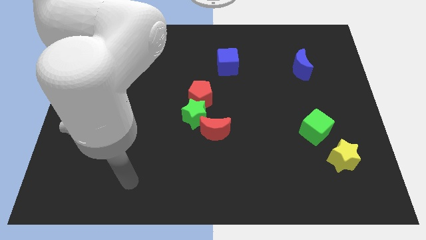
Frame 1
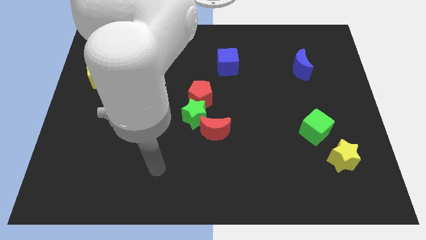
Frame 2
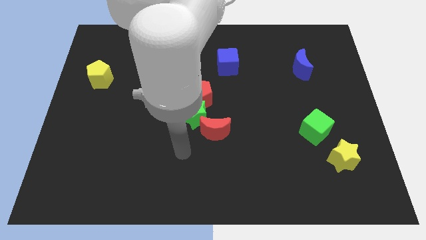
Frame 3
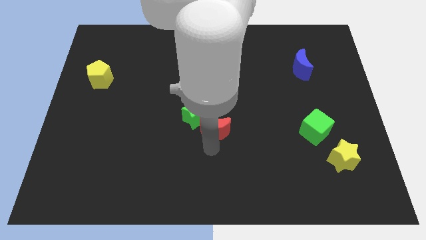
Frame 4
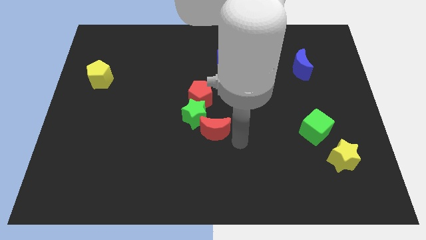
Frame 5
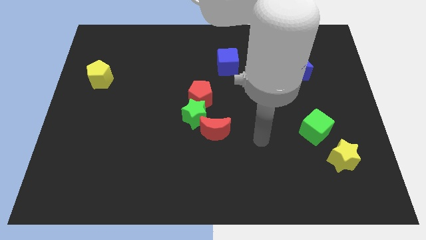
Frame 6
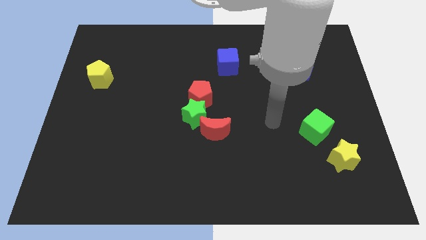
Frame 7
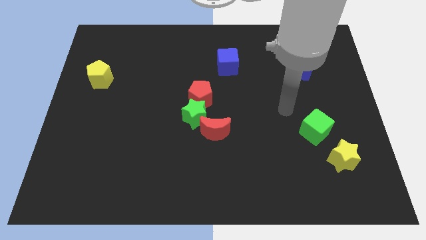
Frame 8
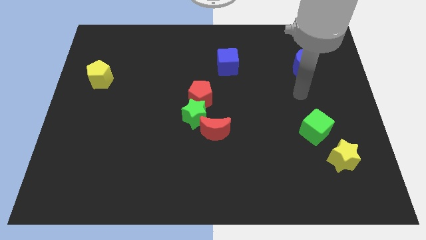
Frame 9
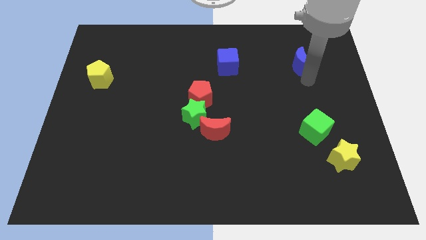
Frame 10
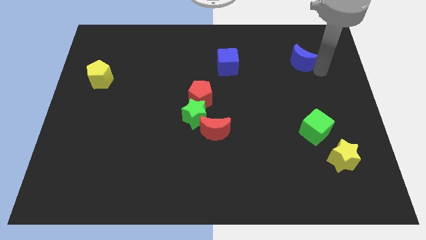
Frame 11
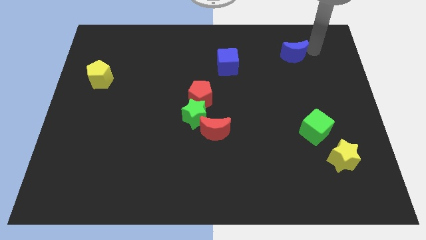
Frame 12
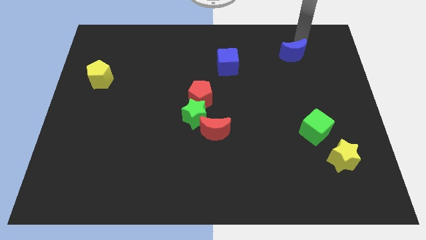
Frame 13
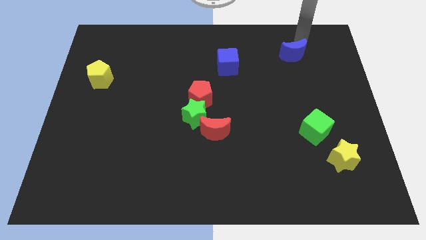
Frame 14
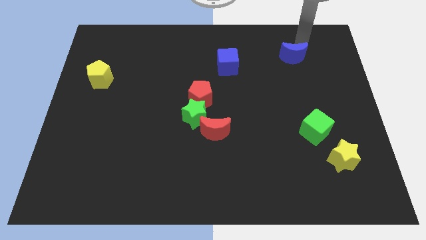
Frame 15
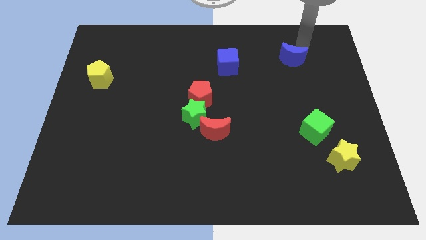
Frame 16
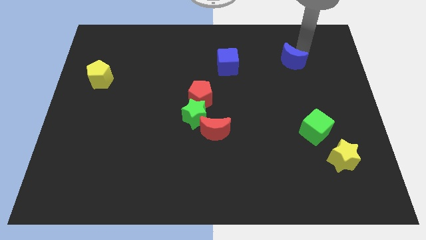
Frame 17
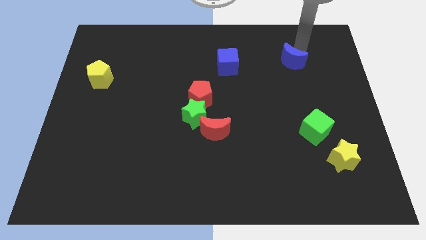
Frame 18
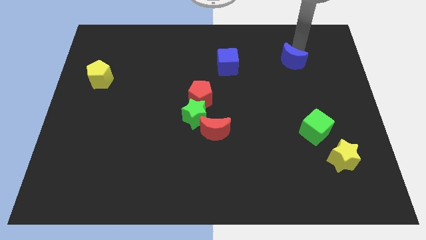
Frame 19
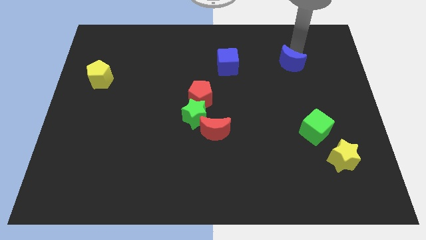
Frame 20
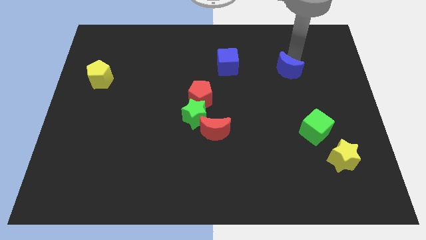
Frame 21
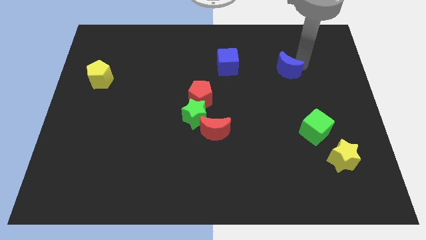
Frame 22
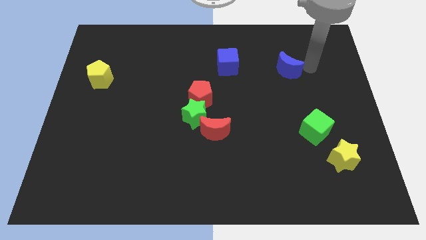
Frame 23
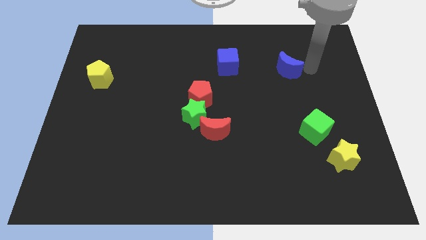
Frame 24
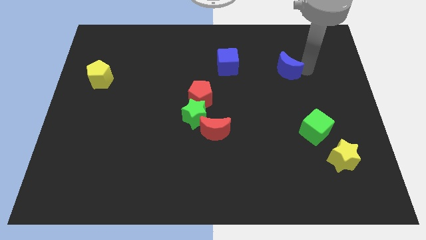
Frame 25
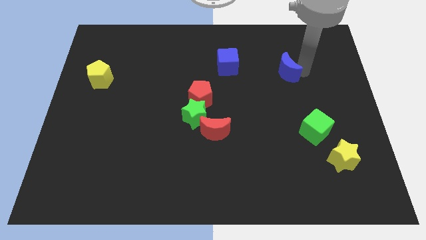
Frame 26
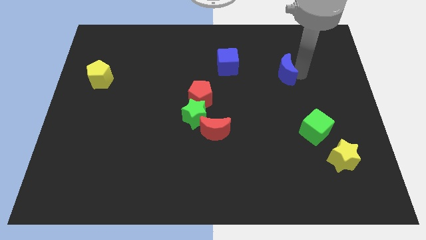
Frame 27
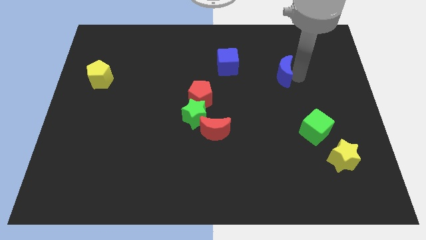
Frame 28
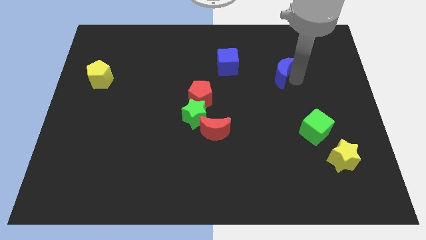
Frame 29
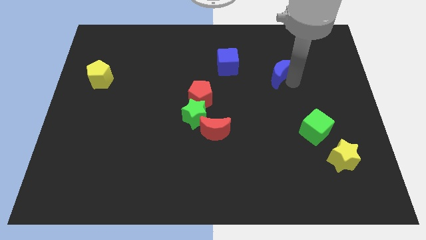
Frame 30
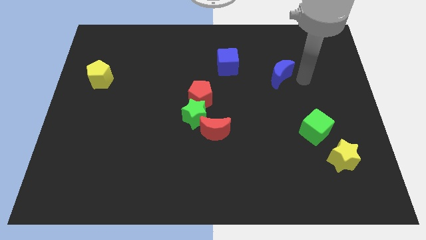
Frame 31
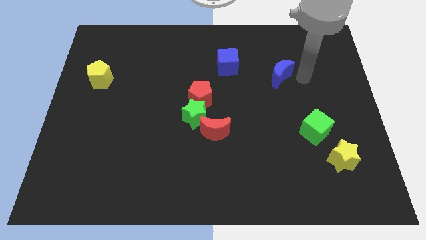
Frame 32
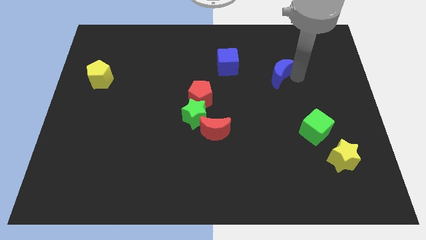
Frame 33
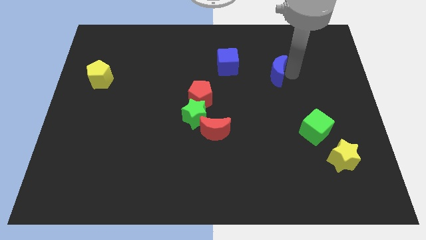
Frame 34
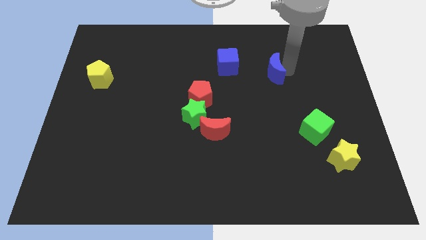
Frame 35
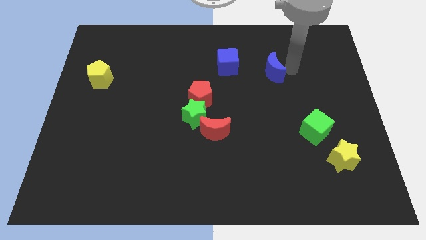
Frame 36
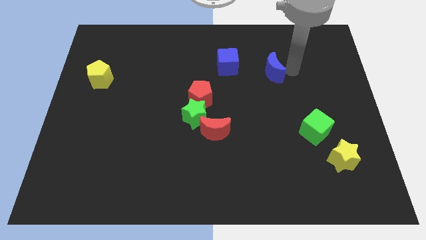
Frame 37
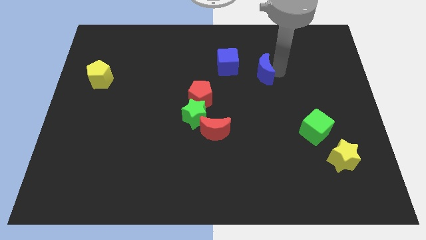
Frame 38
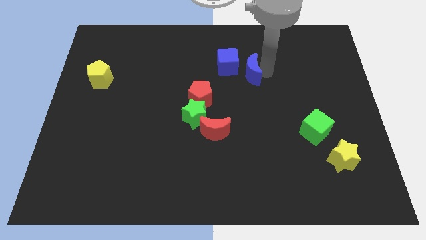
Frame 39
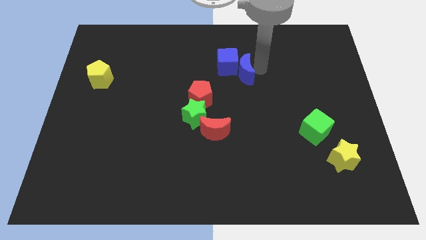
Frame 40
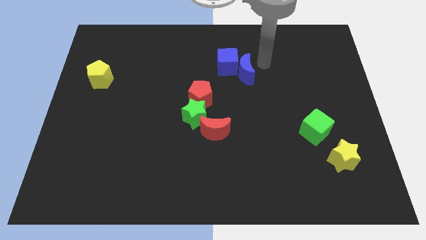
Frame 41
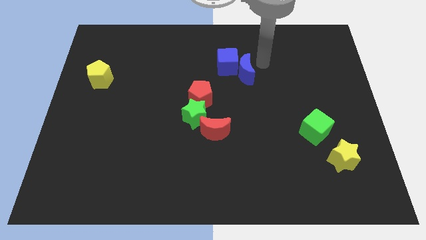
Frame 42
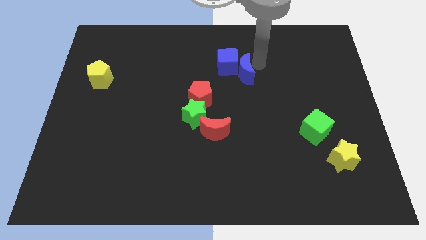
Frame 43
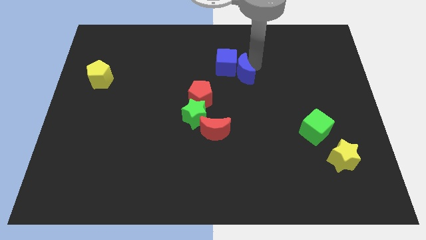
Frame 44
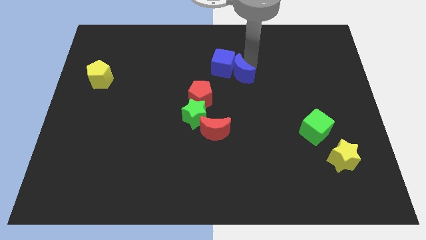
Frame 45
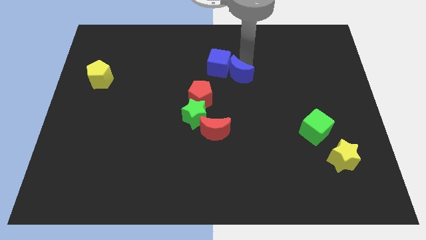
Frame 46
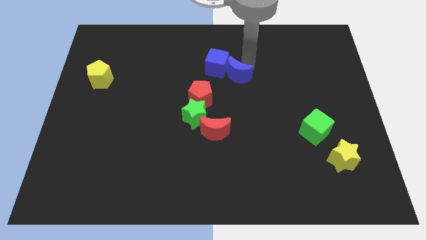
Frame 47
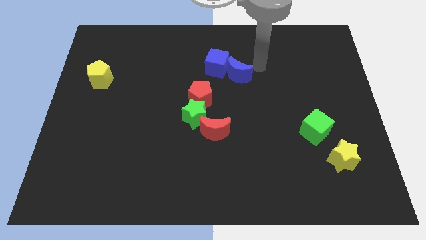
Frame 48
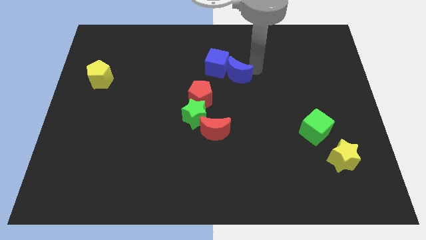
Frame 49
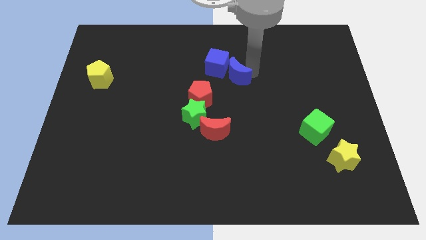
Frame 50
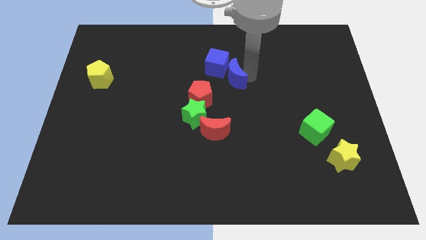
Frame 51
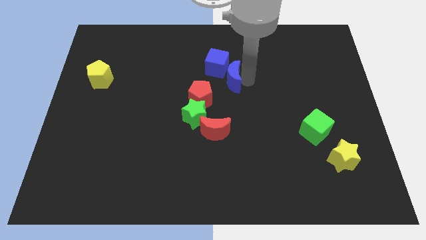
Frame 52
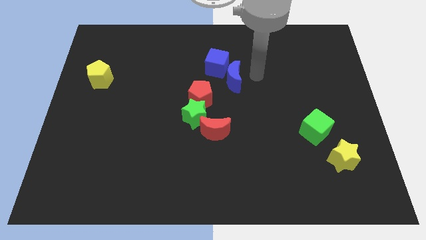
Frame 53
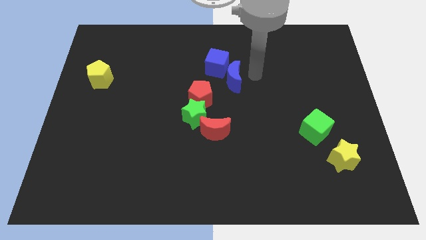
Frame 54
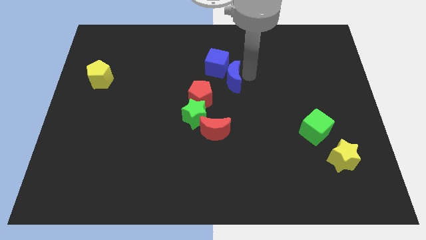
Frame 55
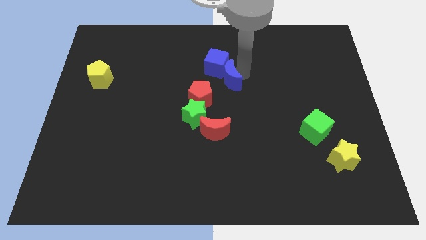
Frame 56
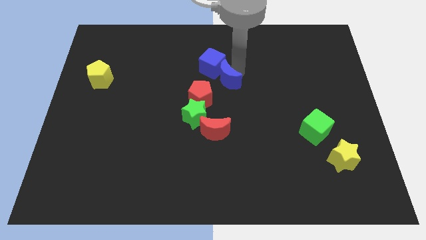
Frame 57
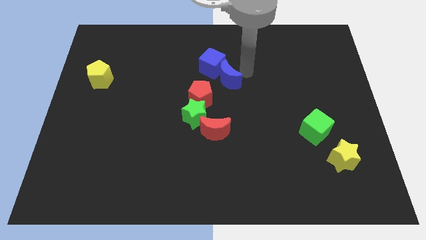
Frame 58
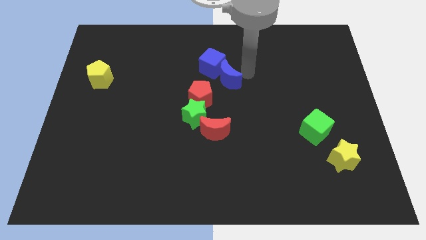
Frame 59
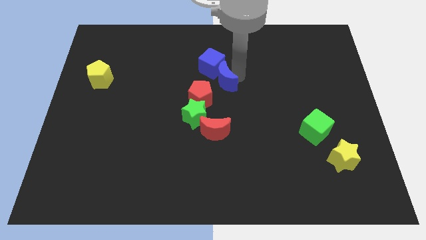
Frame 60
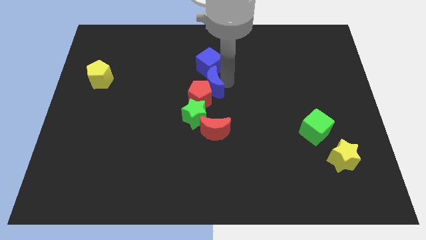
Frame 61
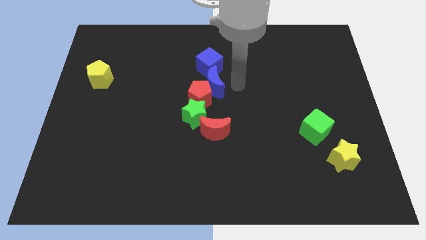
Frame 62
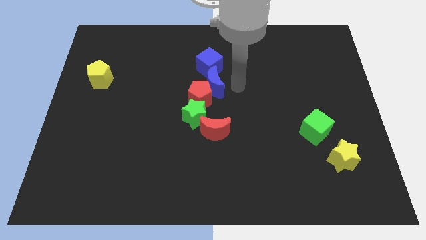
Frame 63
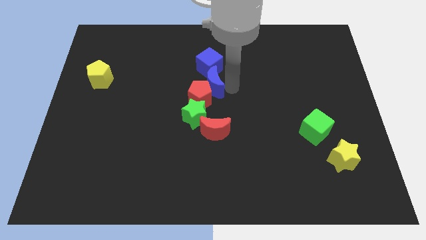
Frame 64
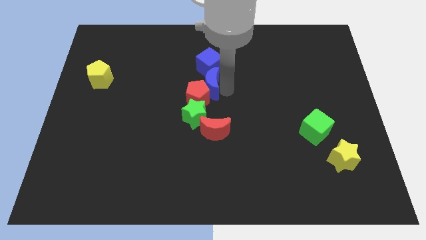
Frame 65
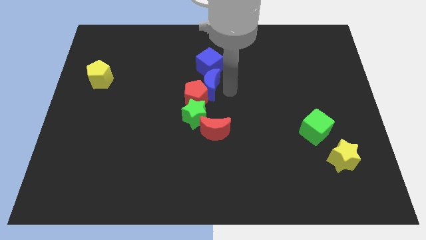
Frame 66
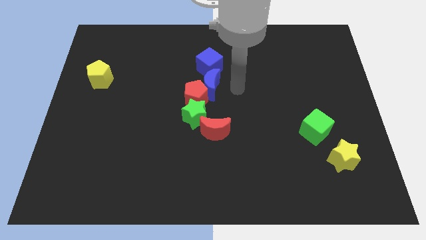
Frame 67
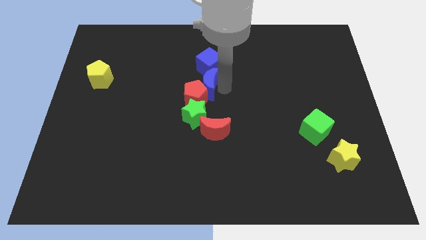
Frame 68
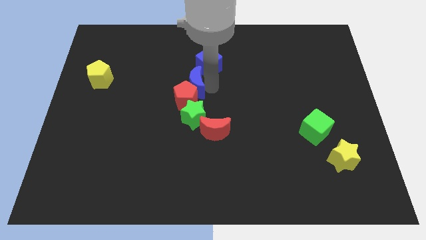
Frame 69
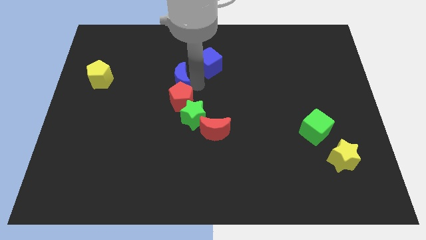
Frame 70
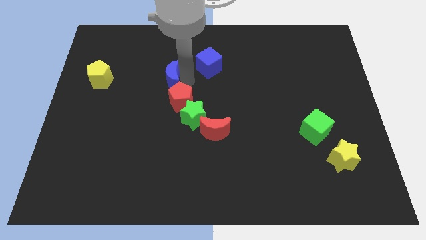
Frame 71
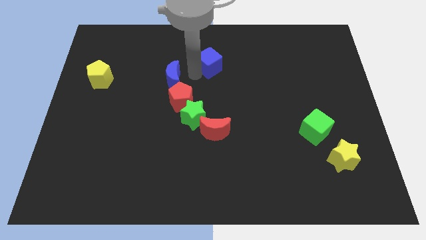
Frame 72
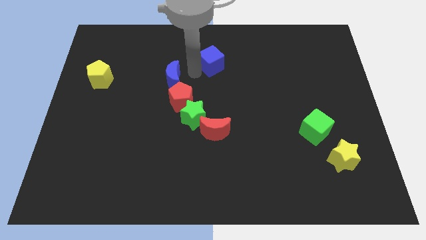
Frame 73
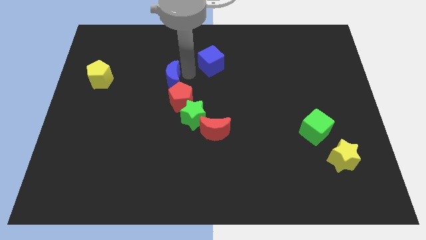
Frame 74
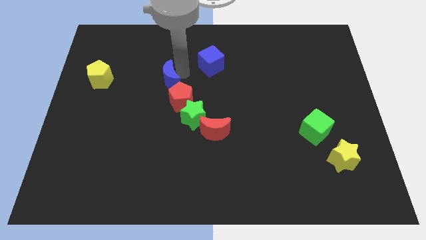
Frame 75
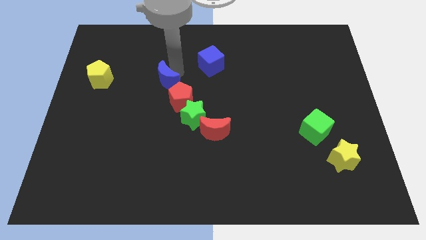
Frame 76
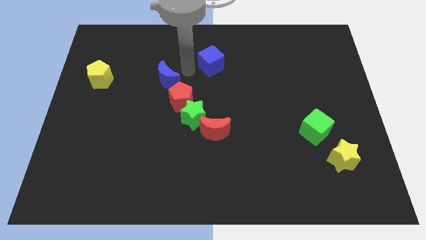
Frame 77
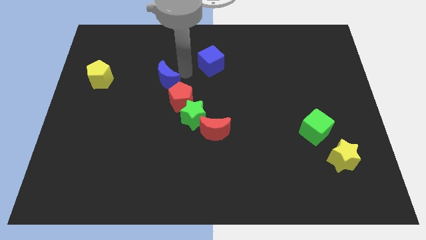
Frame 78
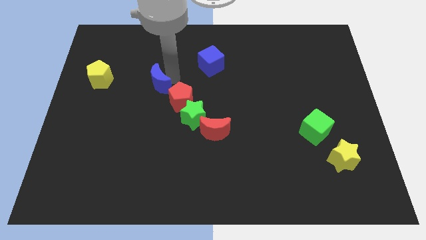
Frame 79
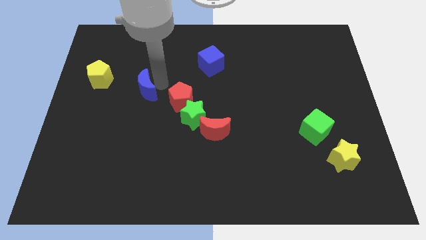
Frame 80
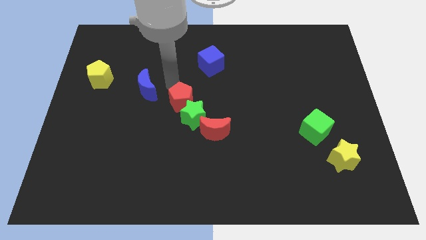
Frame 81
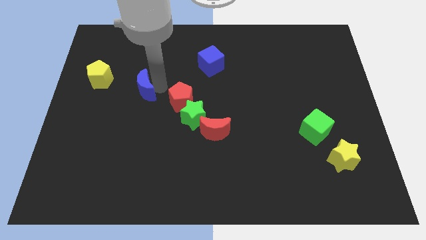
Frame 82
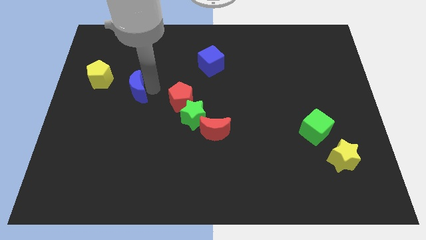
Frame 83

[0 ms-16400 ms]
move the blue moon diagonally down and to the right of the yellow pentagon
